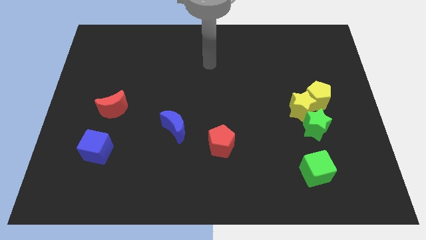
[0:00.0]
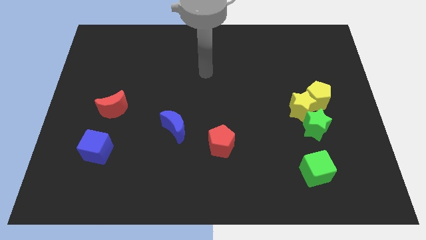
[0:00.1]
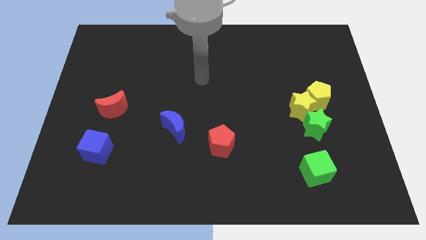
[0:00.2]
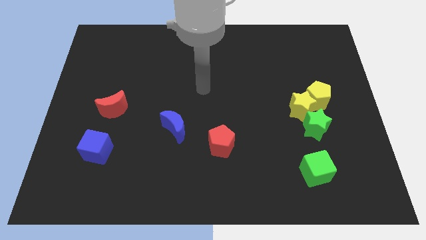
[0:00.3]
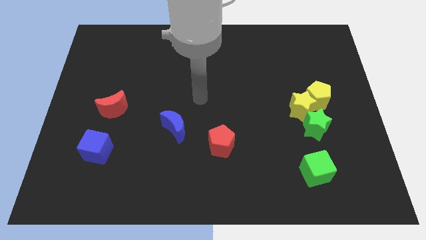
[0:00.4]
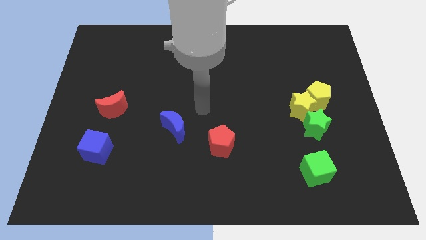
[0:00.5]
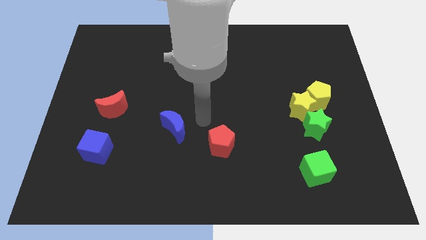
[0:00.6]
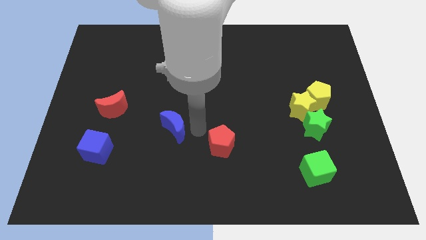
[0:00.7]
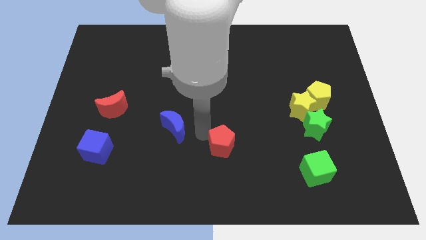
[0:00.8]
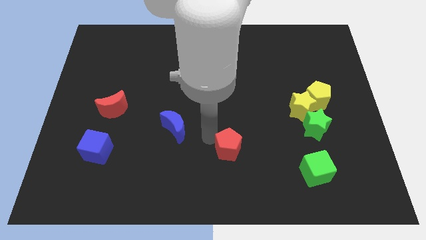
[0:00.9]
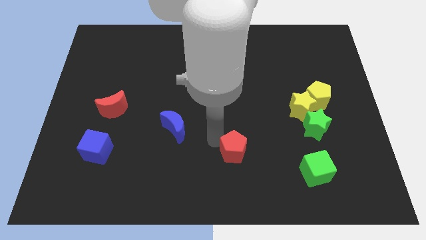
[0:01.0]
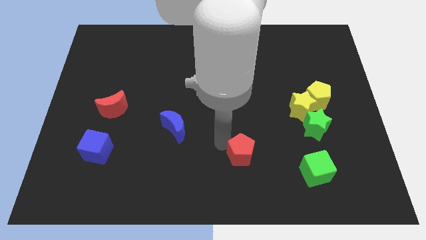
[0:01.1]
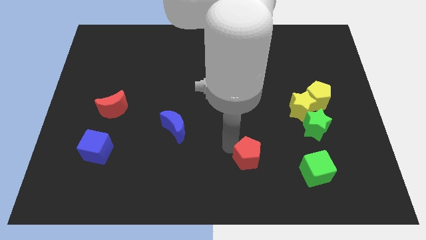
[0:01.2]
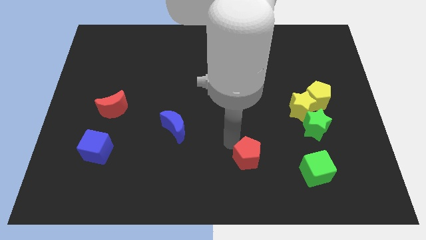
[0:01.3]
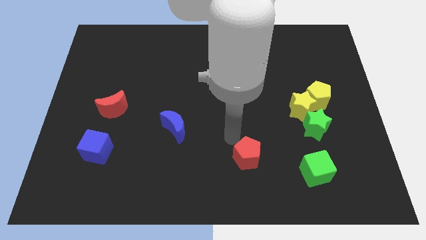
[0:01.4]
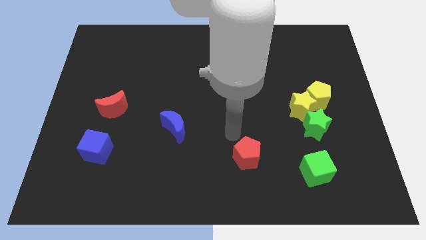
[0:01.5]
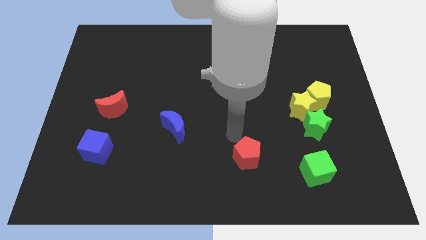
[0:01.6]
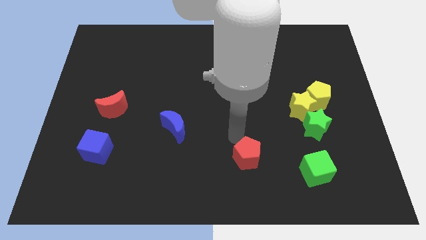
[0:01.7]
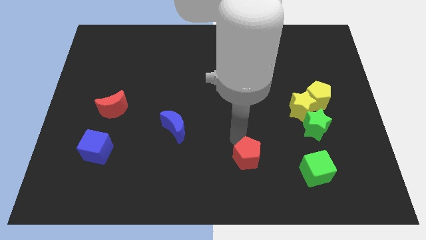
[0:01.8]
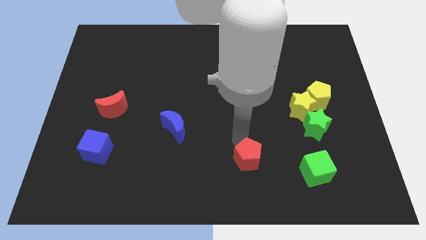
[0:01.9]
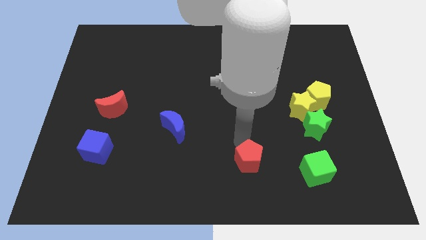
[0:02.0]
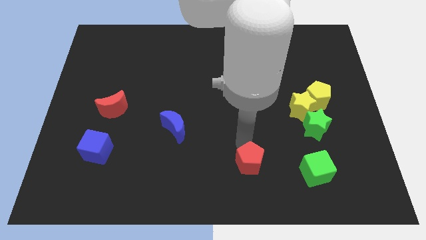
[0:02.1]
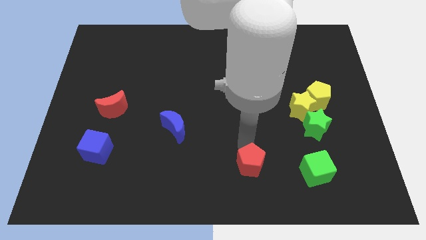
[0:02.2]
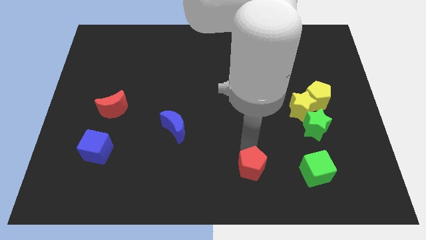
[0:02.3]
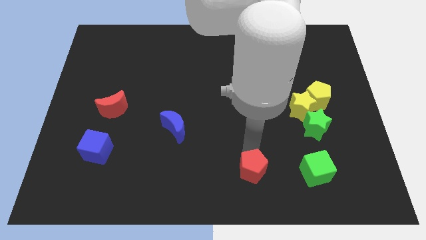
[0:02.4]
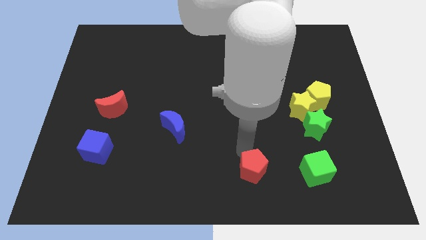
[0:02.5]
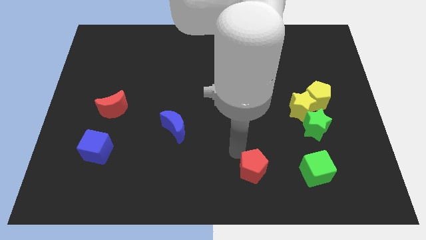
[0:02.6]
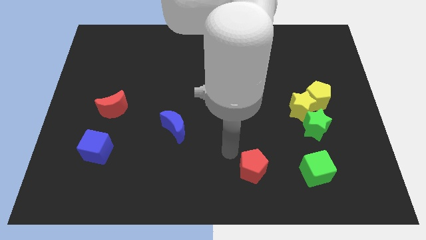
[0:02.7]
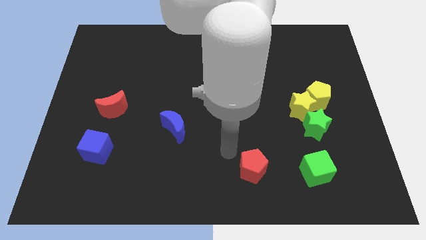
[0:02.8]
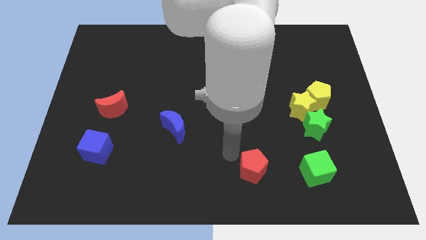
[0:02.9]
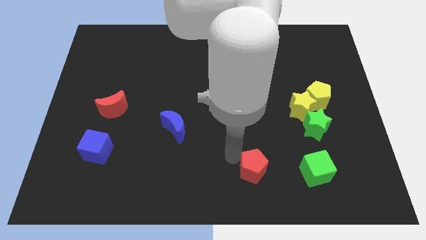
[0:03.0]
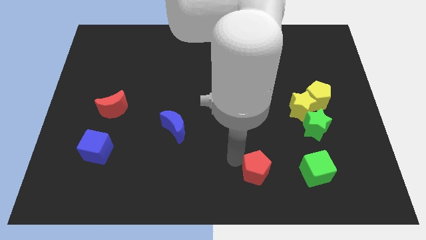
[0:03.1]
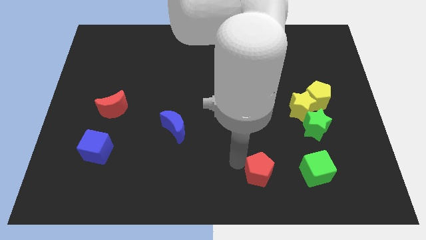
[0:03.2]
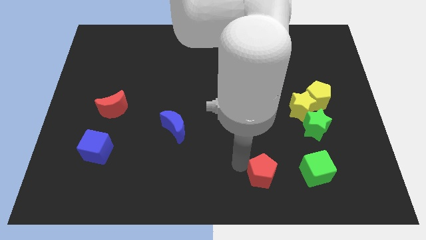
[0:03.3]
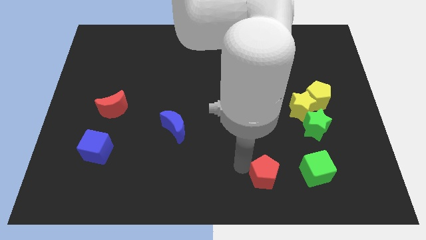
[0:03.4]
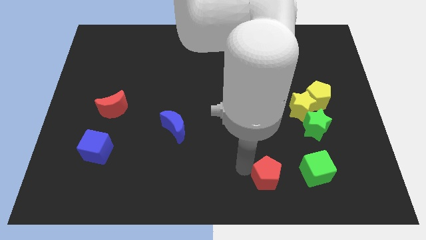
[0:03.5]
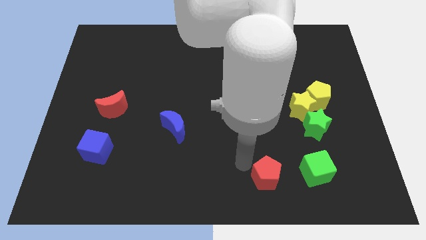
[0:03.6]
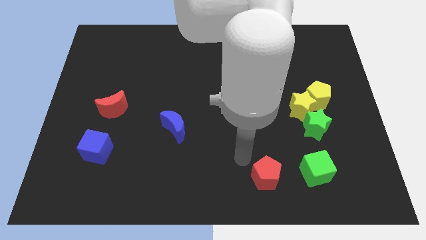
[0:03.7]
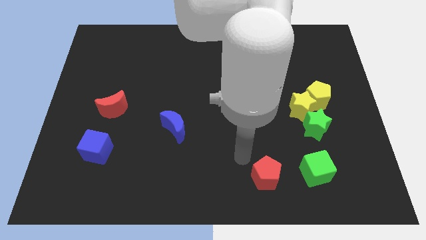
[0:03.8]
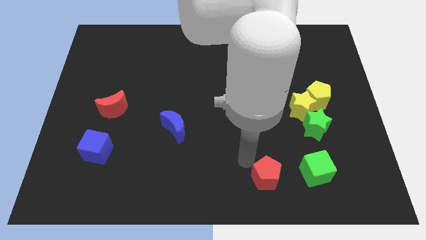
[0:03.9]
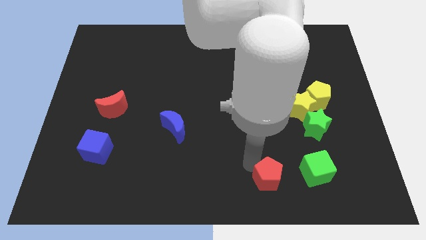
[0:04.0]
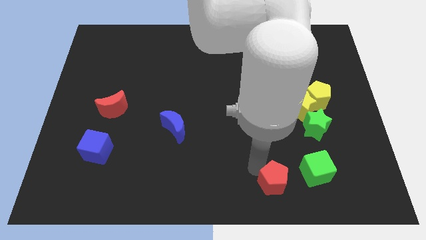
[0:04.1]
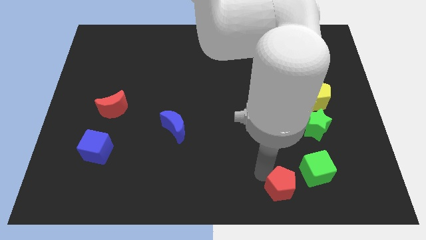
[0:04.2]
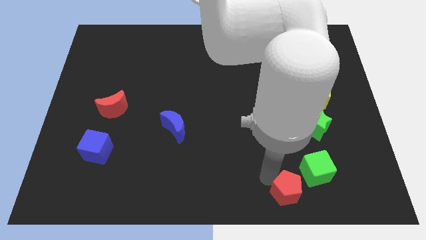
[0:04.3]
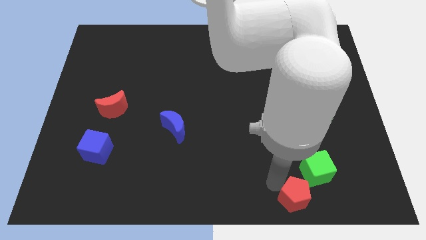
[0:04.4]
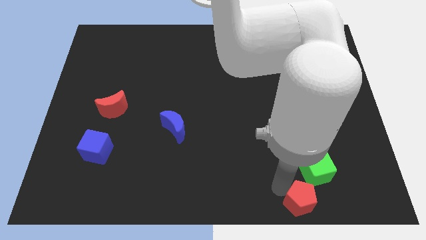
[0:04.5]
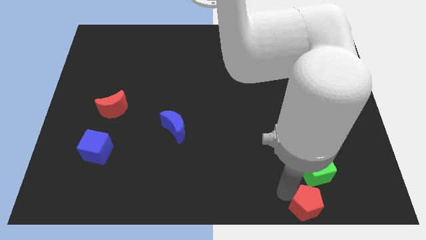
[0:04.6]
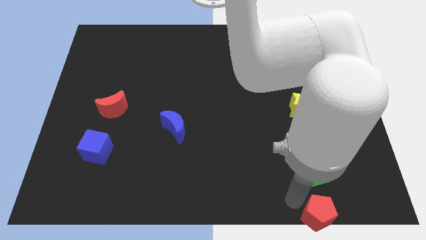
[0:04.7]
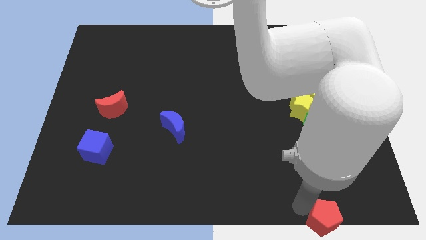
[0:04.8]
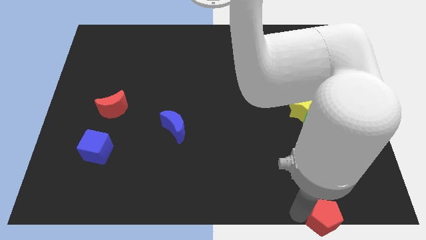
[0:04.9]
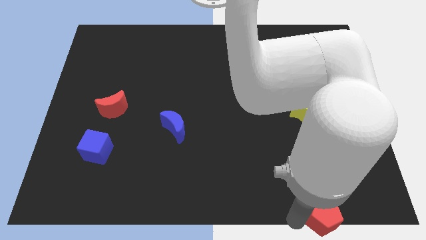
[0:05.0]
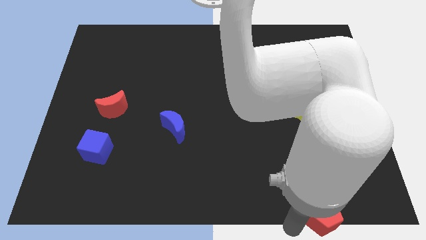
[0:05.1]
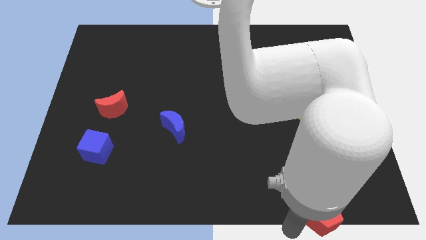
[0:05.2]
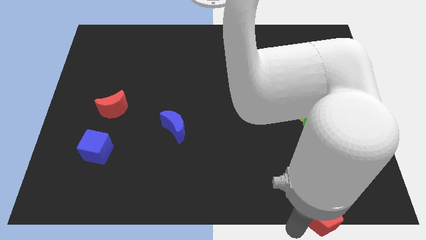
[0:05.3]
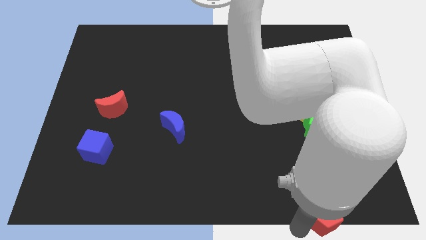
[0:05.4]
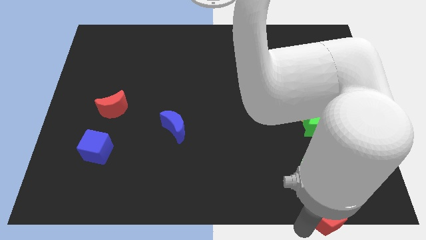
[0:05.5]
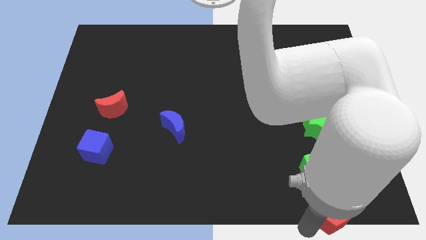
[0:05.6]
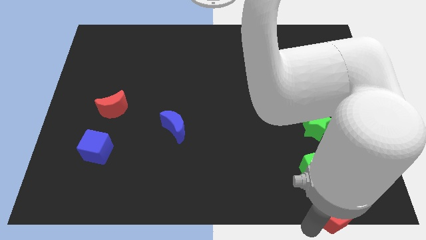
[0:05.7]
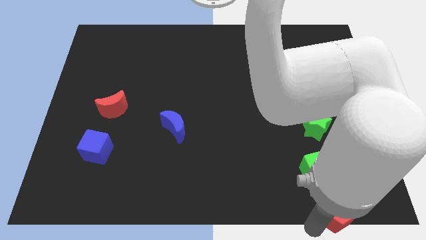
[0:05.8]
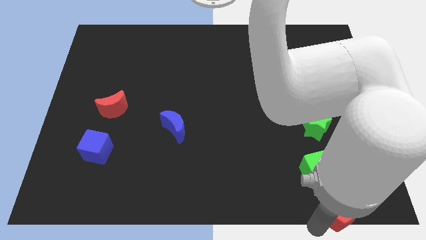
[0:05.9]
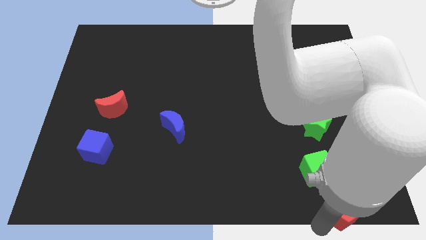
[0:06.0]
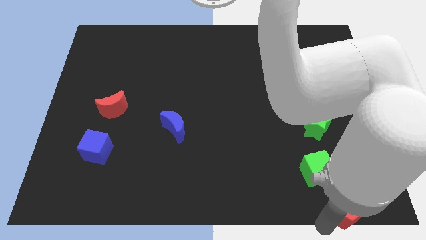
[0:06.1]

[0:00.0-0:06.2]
slide the red pentagon to the bottom right
